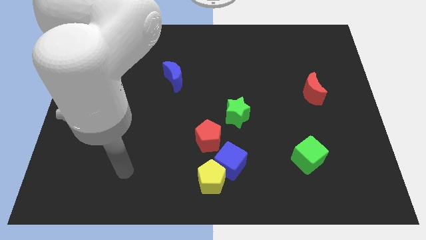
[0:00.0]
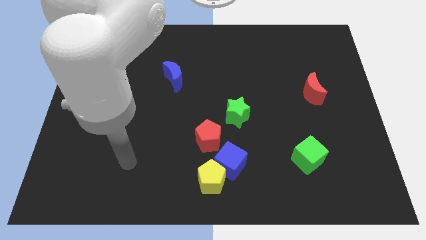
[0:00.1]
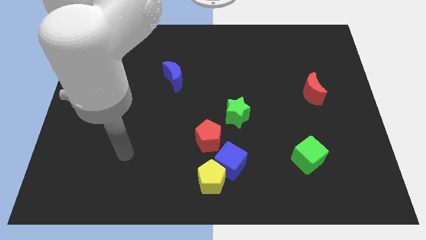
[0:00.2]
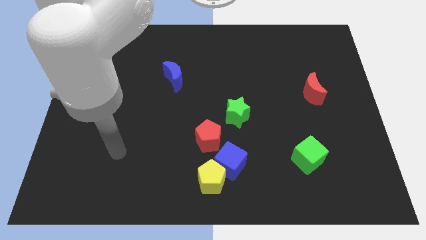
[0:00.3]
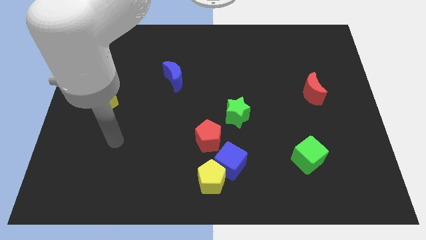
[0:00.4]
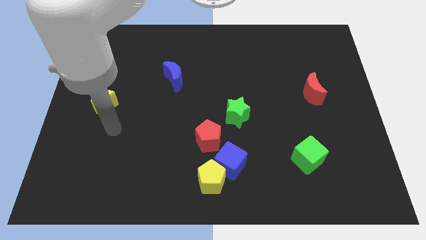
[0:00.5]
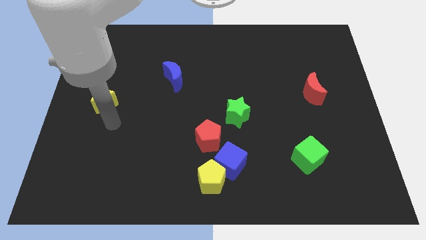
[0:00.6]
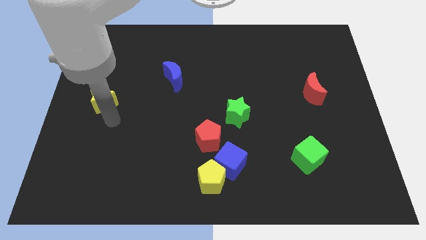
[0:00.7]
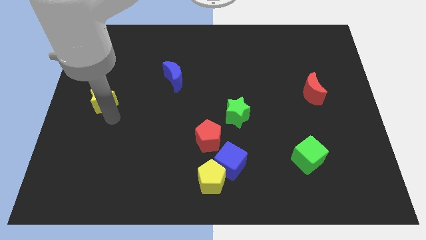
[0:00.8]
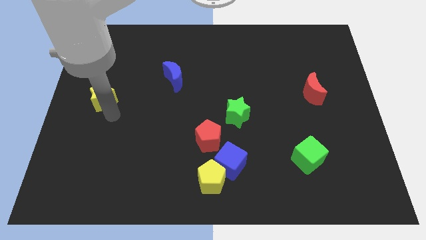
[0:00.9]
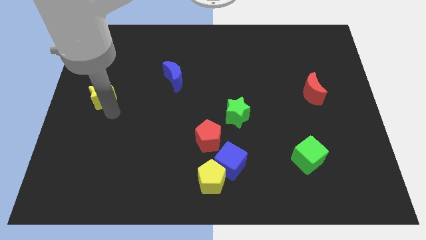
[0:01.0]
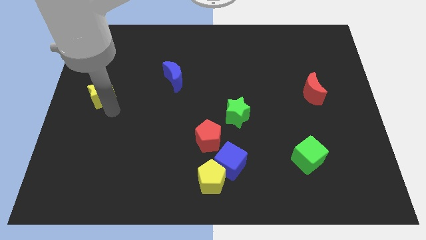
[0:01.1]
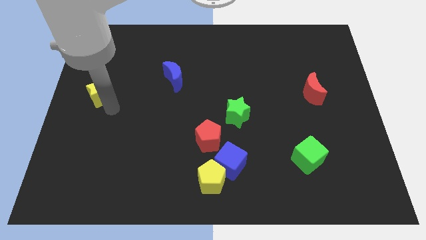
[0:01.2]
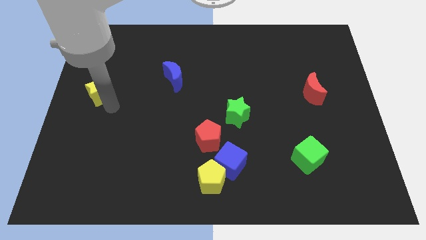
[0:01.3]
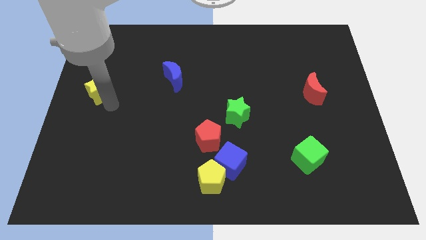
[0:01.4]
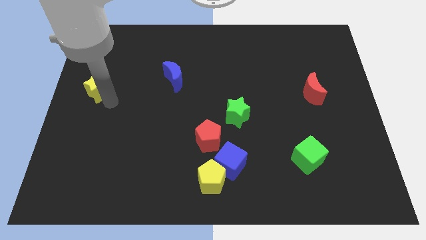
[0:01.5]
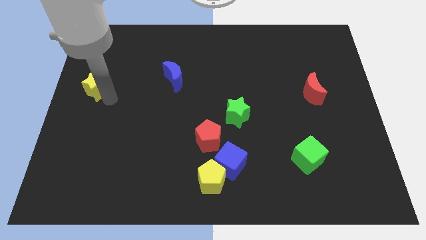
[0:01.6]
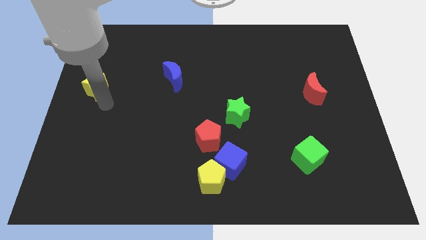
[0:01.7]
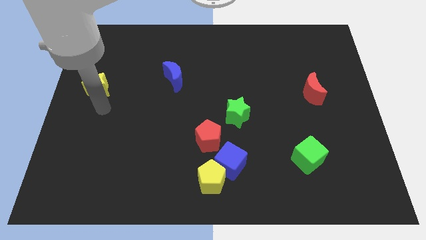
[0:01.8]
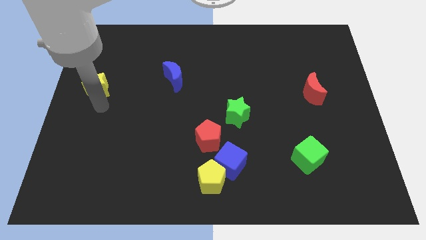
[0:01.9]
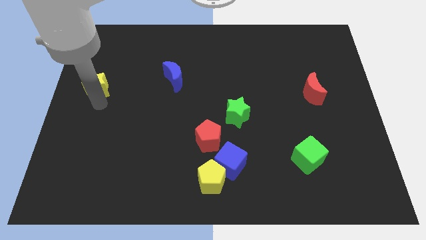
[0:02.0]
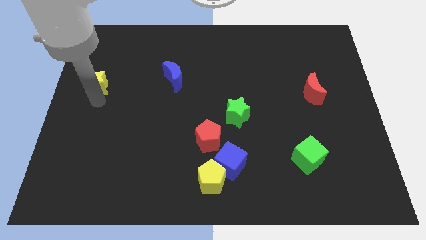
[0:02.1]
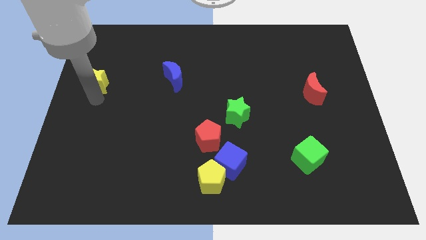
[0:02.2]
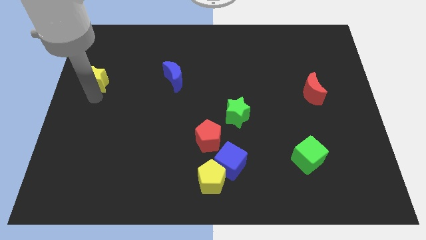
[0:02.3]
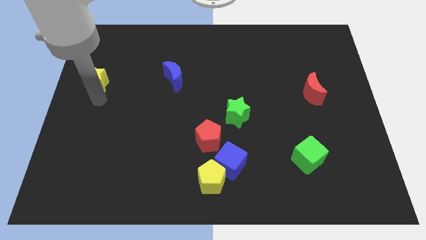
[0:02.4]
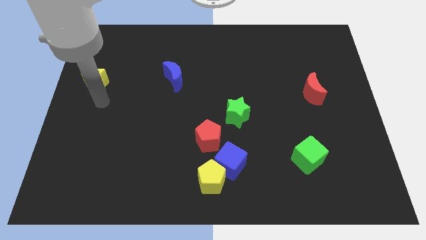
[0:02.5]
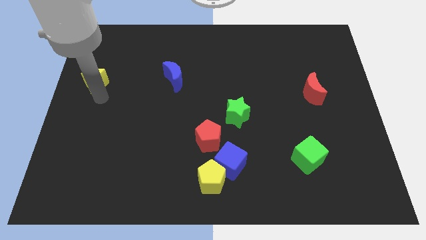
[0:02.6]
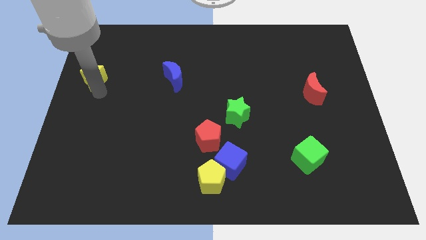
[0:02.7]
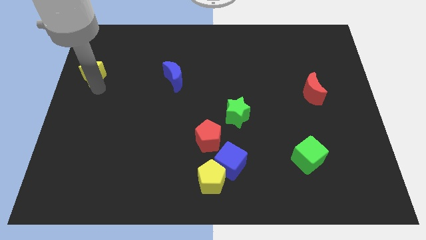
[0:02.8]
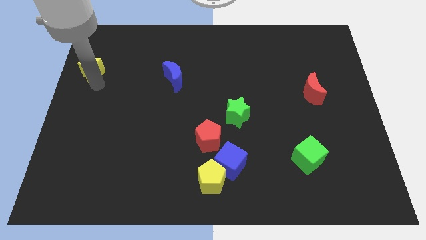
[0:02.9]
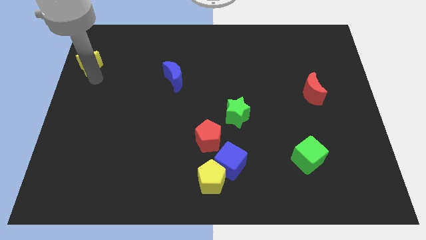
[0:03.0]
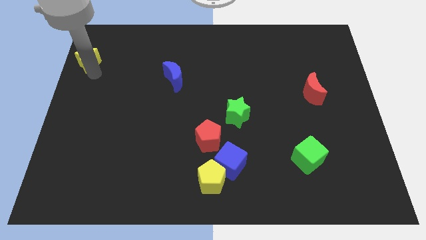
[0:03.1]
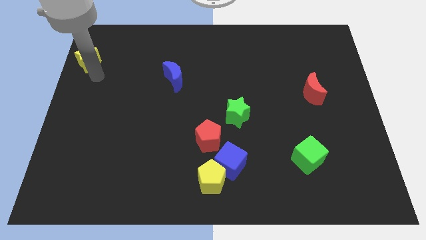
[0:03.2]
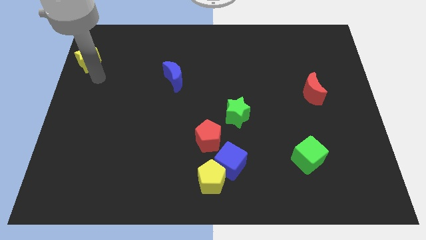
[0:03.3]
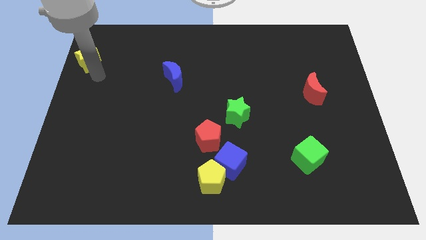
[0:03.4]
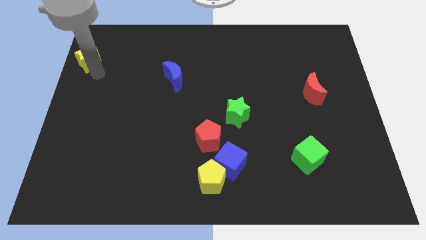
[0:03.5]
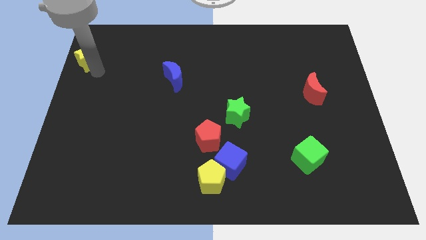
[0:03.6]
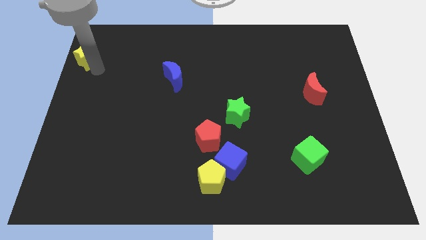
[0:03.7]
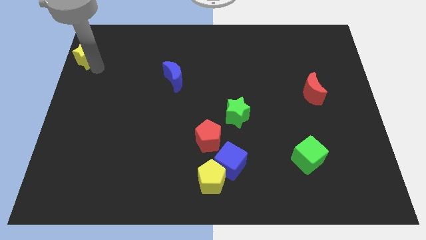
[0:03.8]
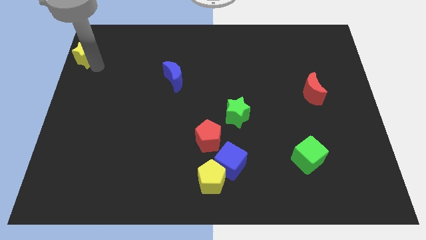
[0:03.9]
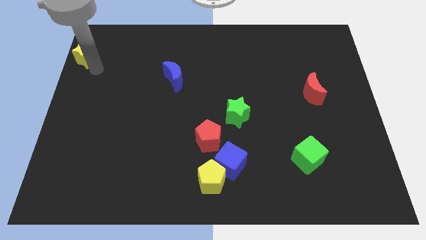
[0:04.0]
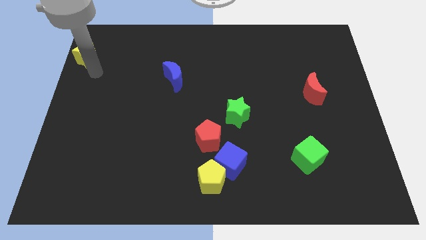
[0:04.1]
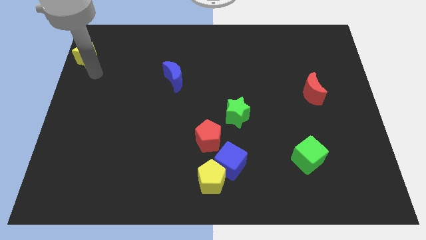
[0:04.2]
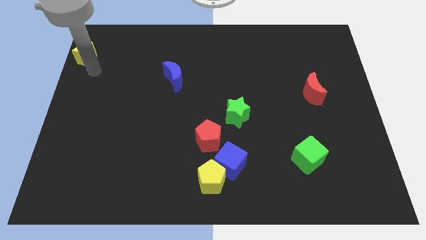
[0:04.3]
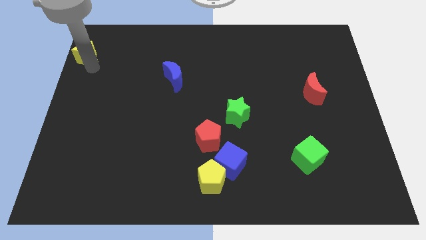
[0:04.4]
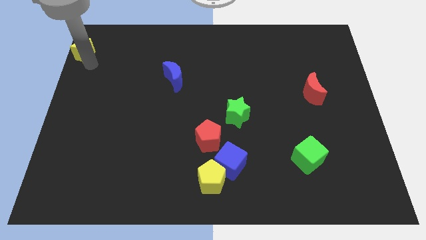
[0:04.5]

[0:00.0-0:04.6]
put the yellow star to the top left

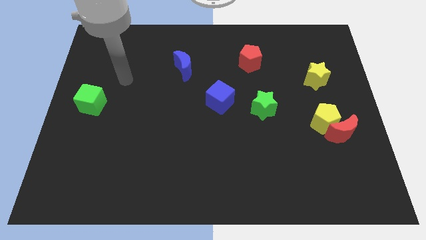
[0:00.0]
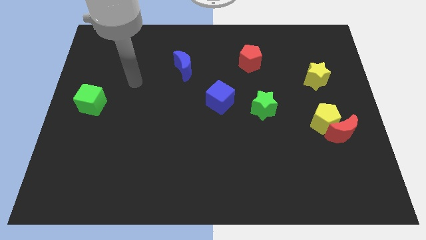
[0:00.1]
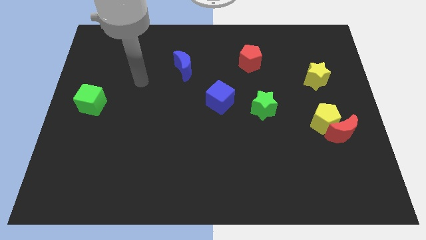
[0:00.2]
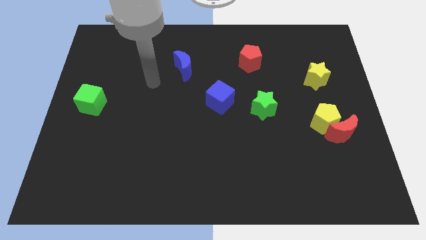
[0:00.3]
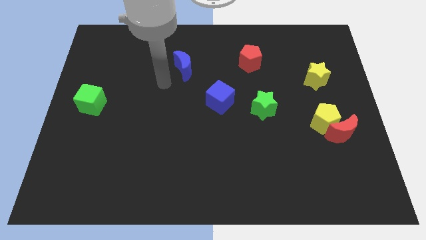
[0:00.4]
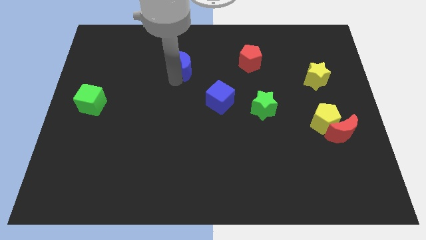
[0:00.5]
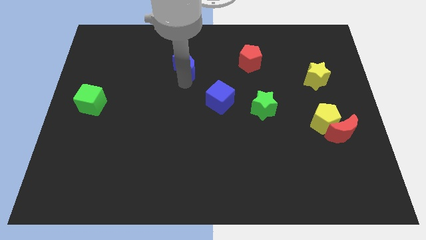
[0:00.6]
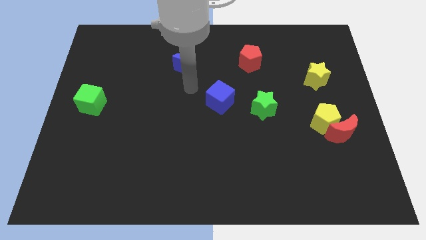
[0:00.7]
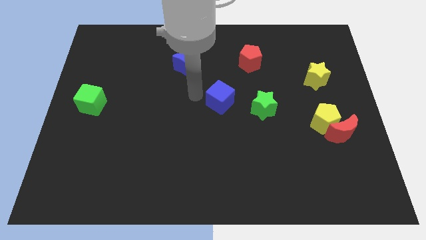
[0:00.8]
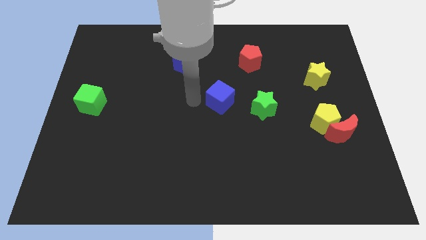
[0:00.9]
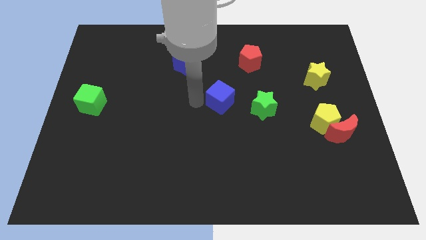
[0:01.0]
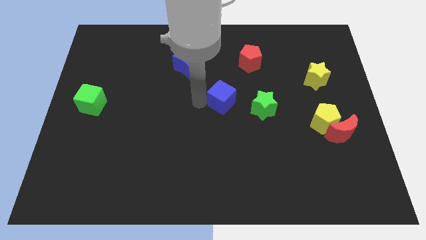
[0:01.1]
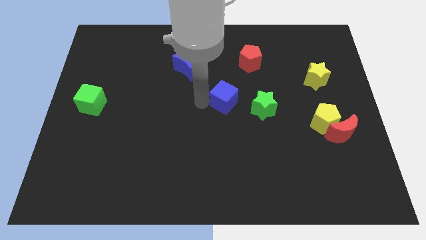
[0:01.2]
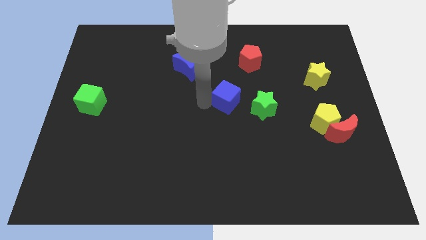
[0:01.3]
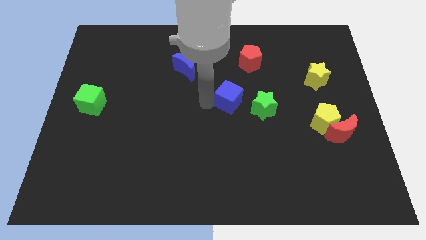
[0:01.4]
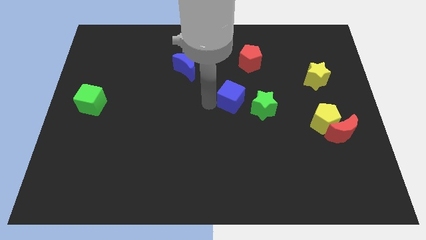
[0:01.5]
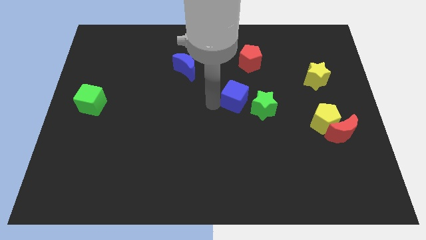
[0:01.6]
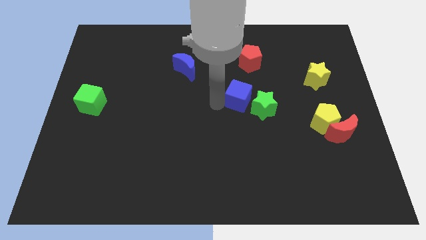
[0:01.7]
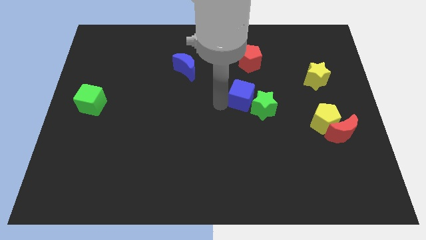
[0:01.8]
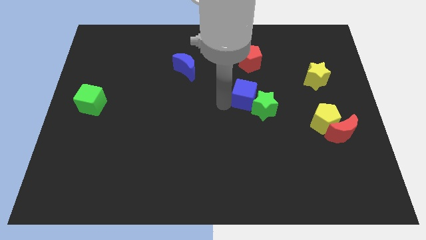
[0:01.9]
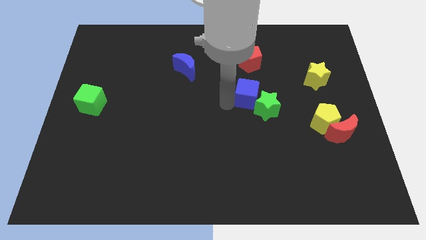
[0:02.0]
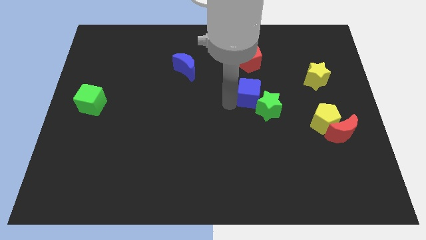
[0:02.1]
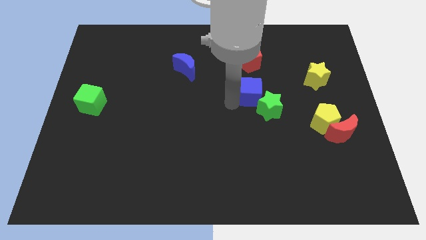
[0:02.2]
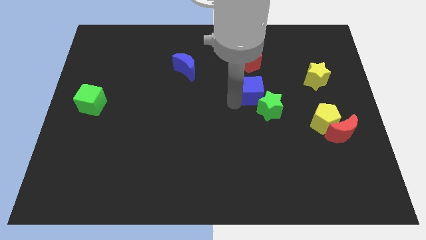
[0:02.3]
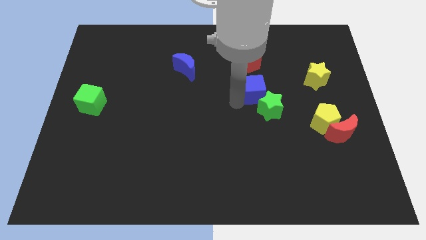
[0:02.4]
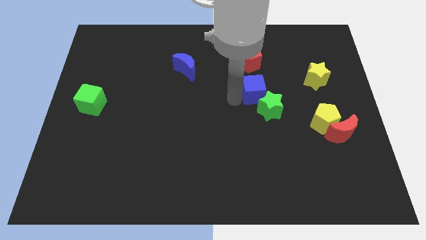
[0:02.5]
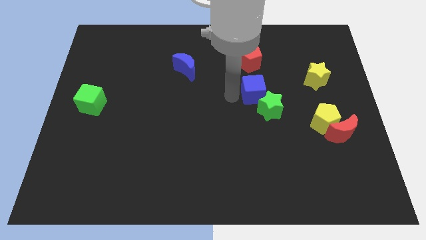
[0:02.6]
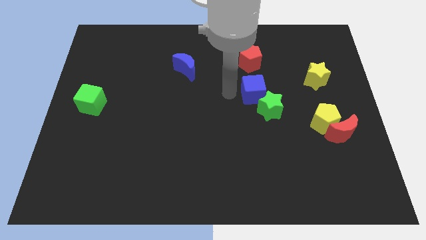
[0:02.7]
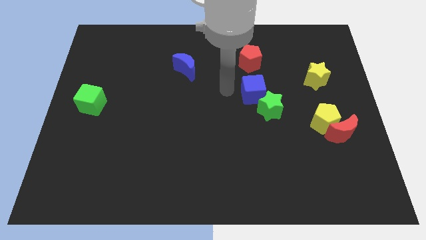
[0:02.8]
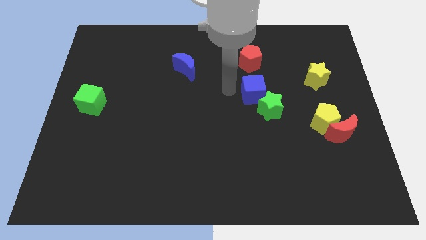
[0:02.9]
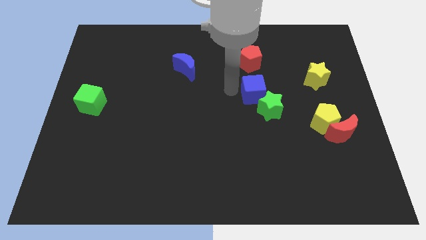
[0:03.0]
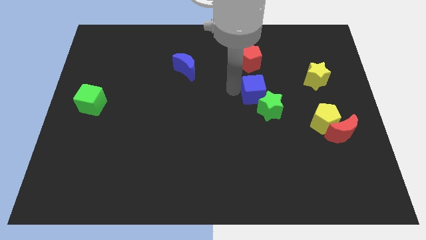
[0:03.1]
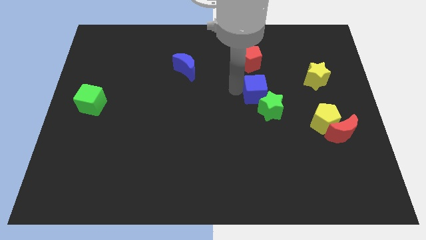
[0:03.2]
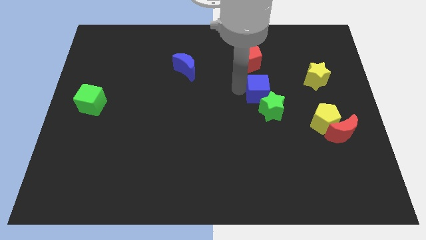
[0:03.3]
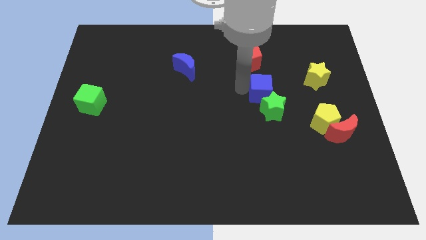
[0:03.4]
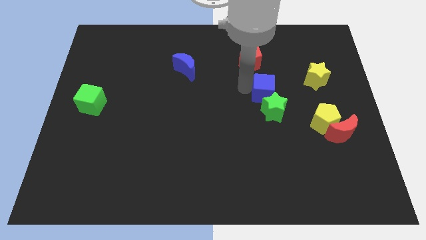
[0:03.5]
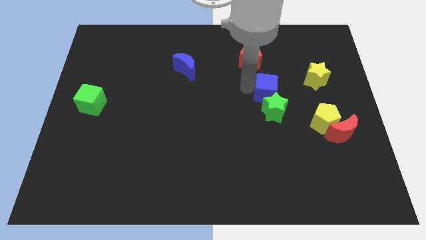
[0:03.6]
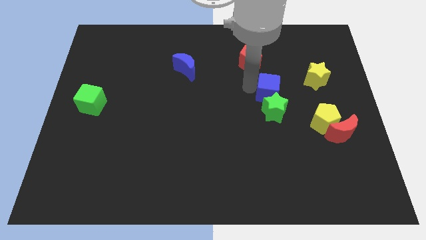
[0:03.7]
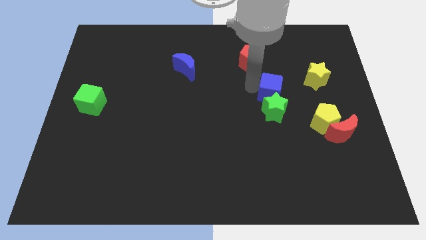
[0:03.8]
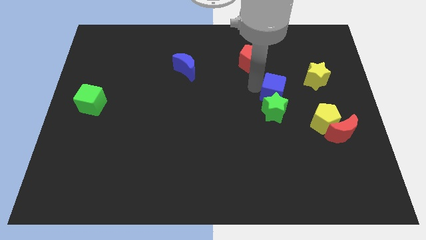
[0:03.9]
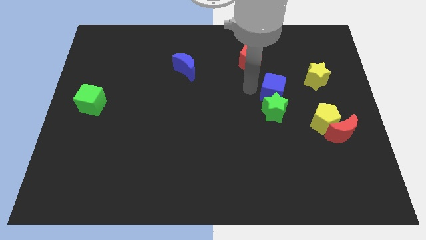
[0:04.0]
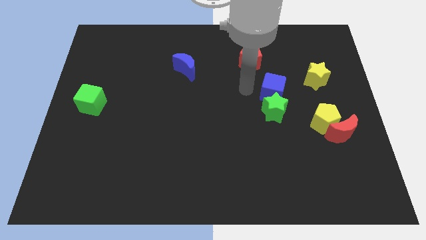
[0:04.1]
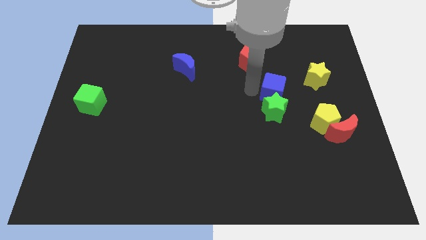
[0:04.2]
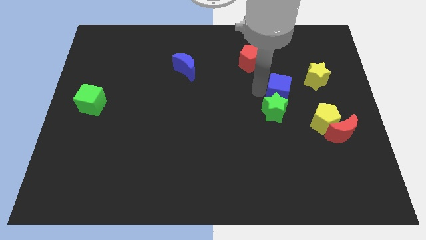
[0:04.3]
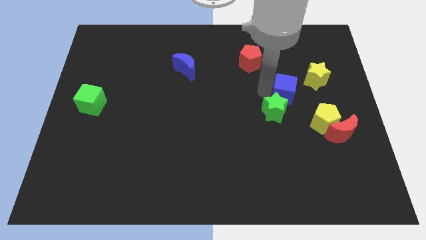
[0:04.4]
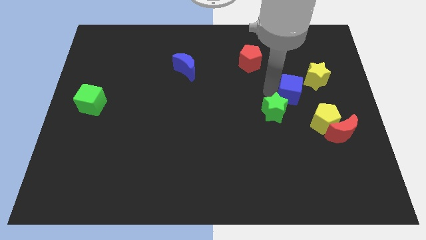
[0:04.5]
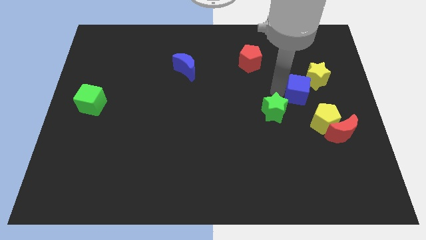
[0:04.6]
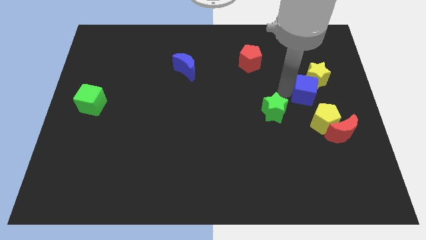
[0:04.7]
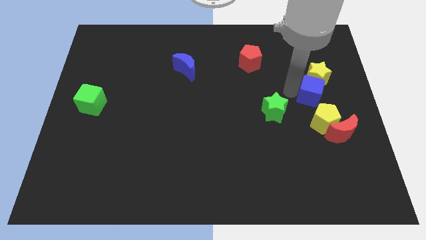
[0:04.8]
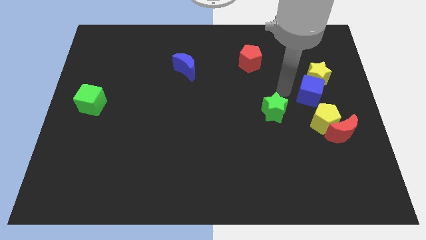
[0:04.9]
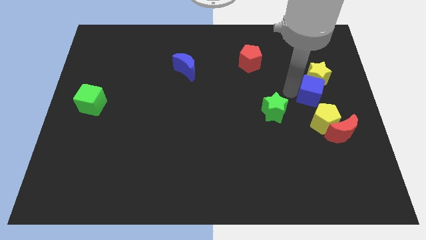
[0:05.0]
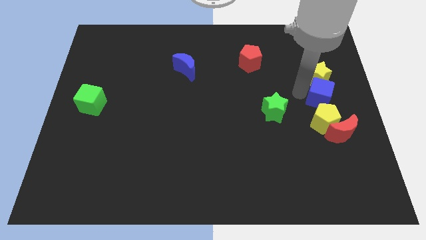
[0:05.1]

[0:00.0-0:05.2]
slide the blue cube to the right side of the board
